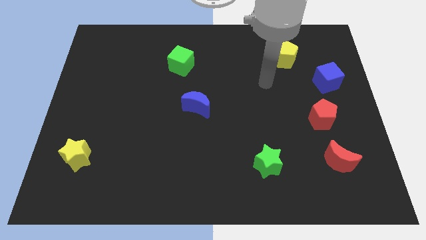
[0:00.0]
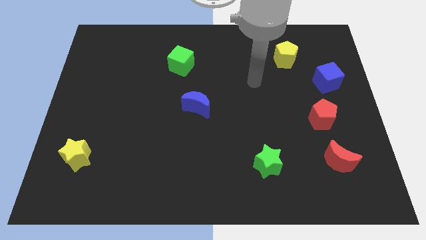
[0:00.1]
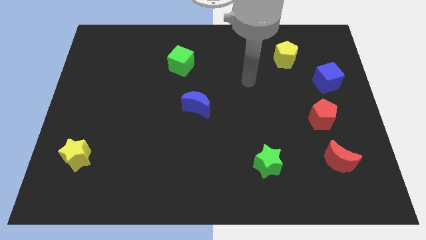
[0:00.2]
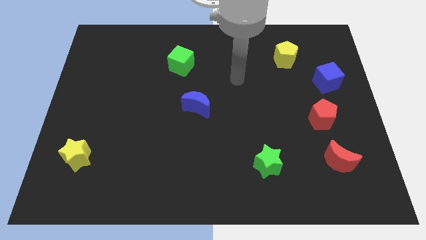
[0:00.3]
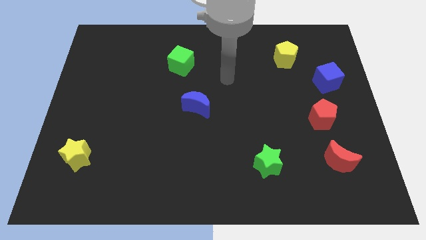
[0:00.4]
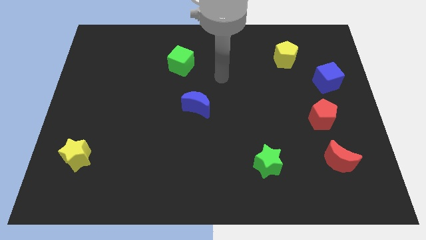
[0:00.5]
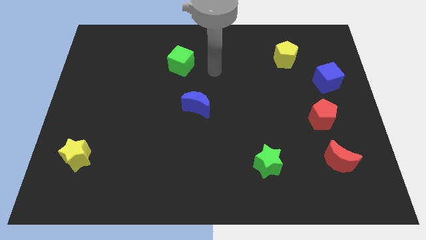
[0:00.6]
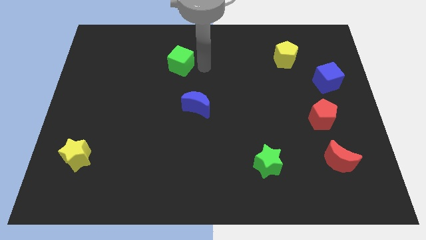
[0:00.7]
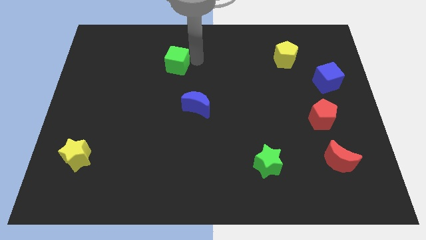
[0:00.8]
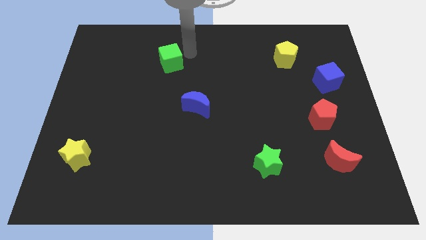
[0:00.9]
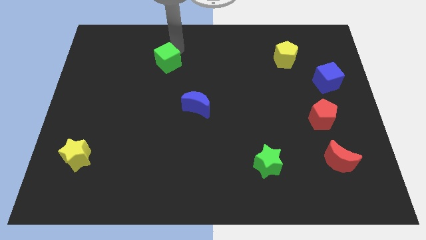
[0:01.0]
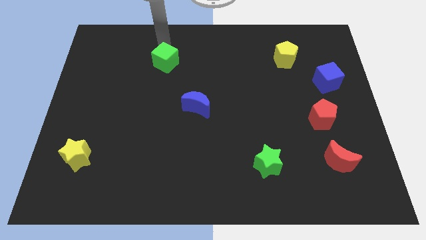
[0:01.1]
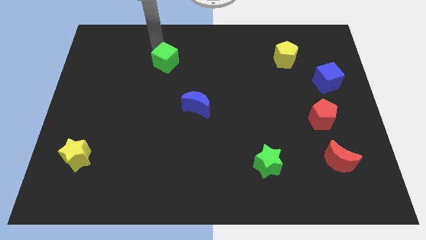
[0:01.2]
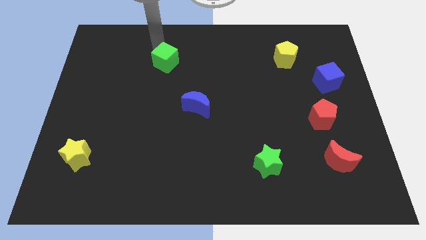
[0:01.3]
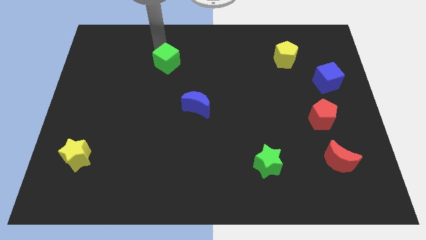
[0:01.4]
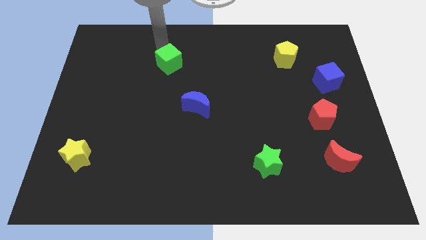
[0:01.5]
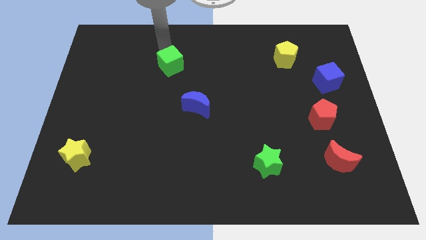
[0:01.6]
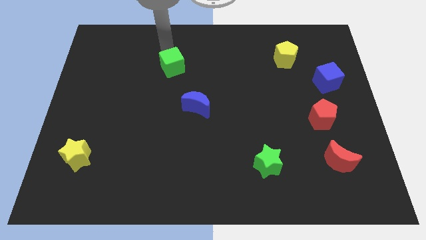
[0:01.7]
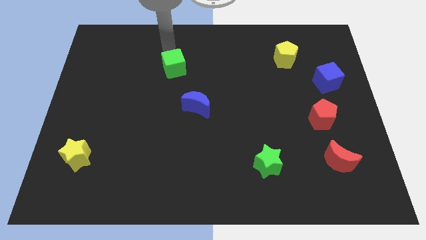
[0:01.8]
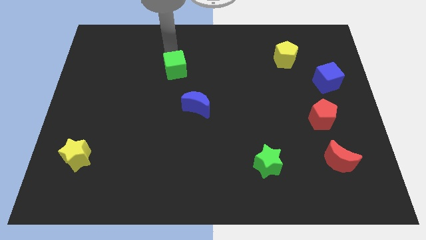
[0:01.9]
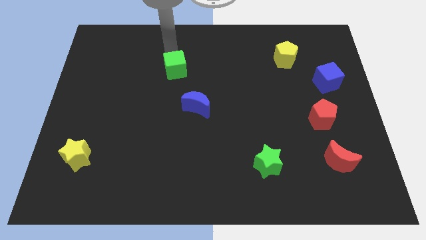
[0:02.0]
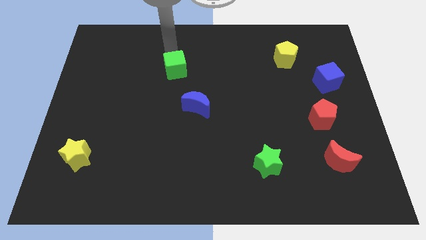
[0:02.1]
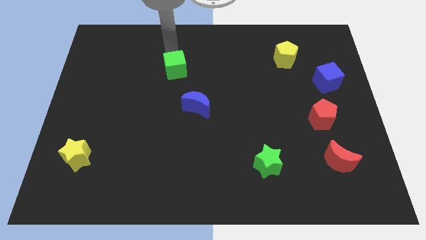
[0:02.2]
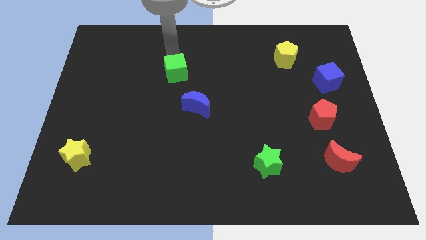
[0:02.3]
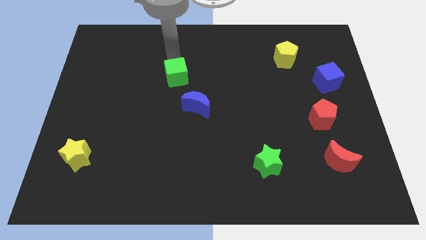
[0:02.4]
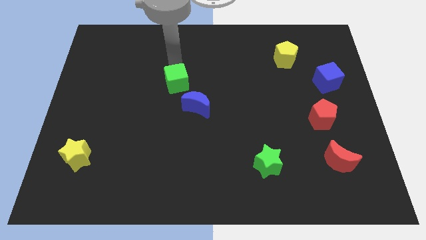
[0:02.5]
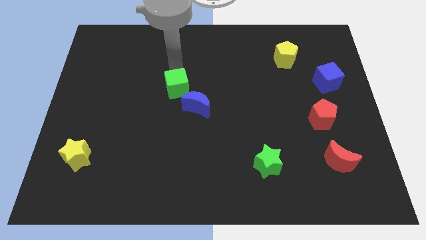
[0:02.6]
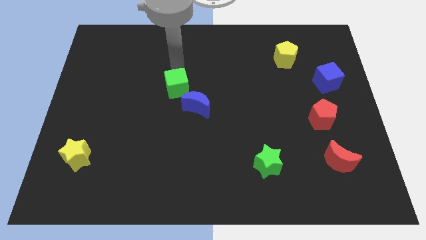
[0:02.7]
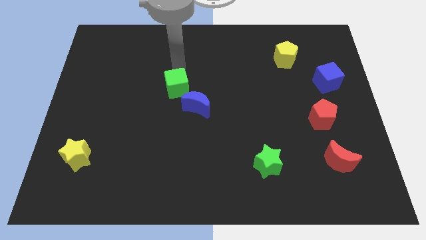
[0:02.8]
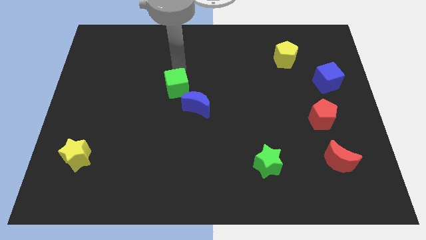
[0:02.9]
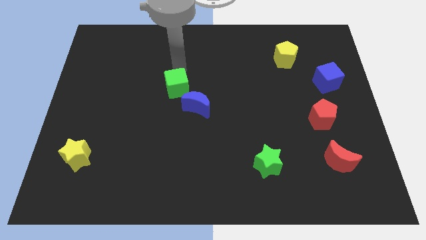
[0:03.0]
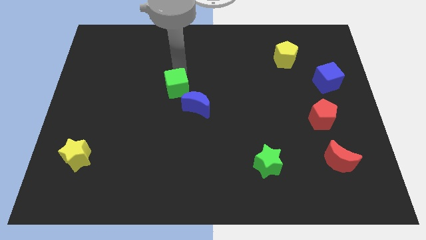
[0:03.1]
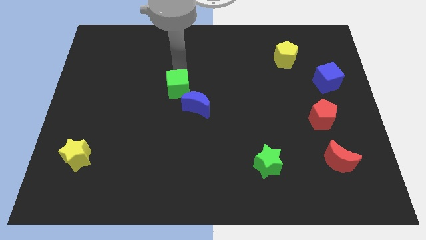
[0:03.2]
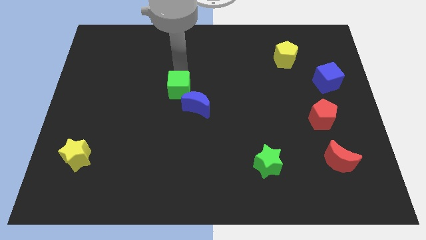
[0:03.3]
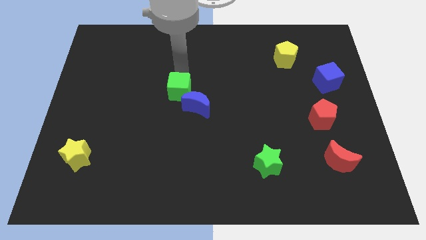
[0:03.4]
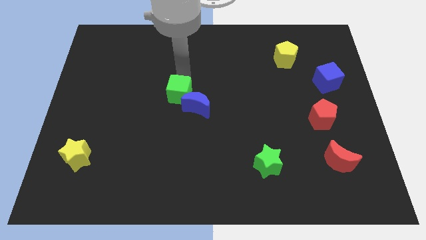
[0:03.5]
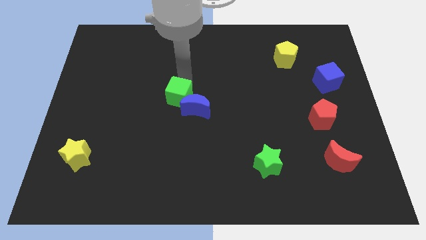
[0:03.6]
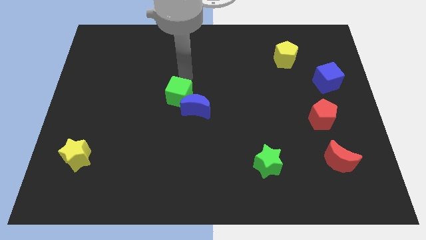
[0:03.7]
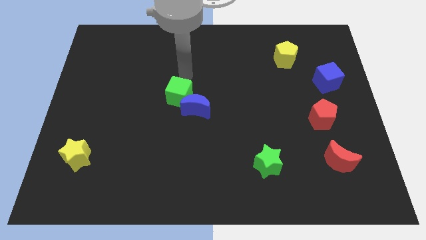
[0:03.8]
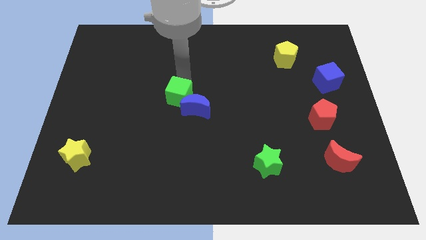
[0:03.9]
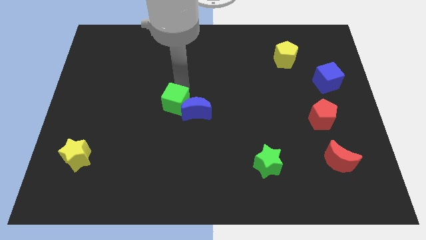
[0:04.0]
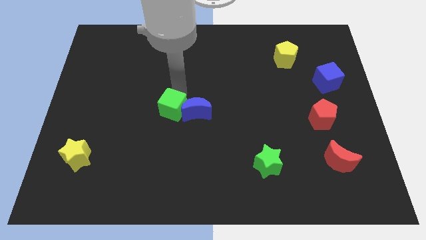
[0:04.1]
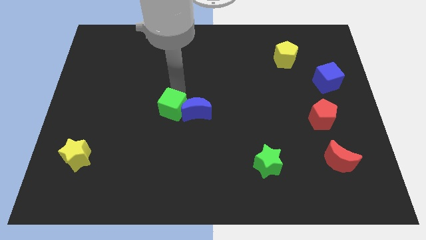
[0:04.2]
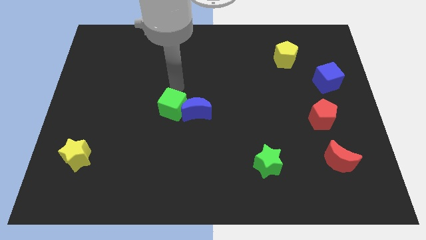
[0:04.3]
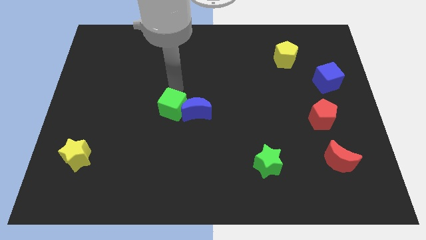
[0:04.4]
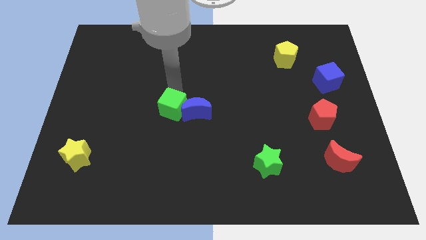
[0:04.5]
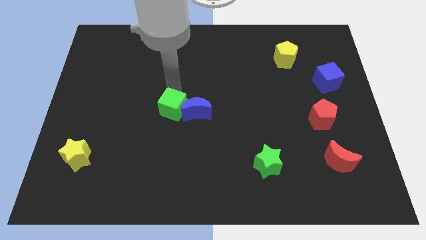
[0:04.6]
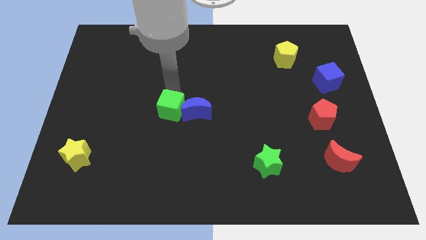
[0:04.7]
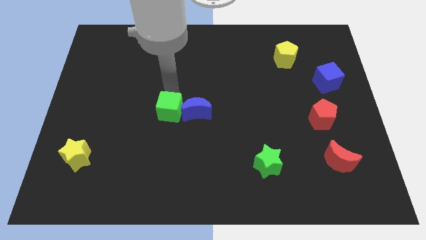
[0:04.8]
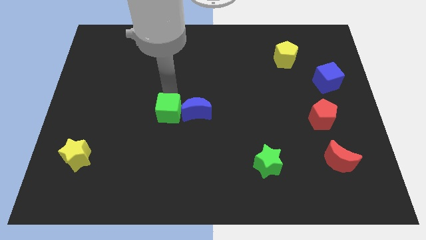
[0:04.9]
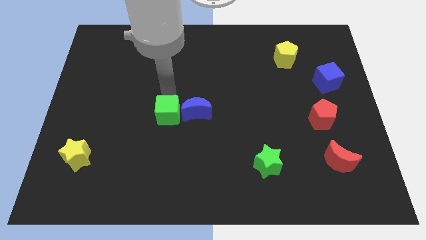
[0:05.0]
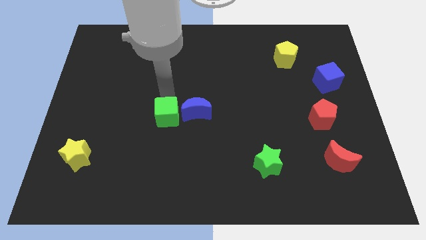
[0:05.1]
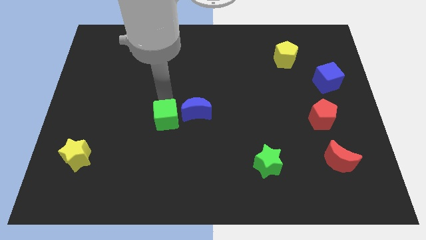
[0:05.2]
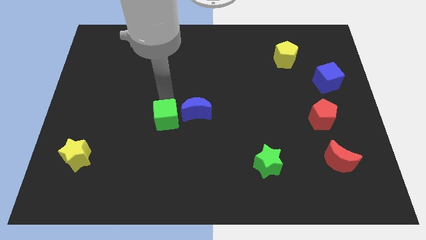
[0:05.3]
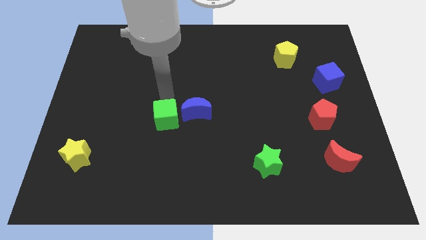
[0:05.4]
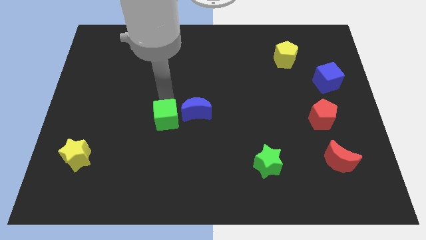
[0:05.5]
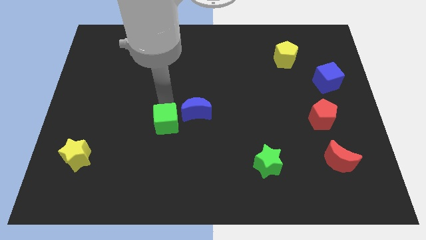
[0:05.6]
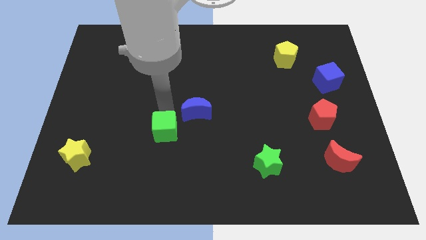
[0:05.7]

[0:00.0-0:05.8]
move the green cube down

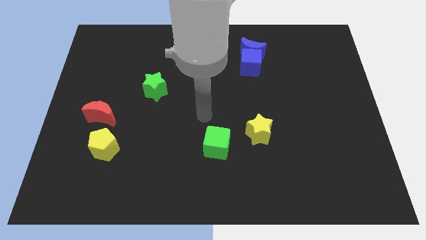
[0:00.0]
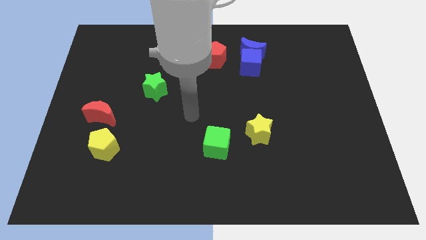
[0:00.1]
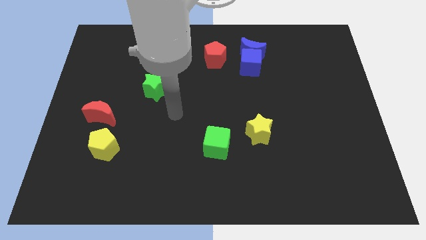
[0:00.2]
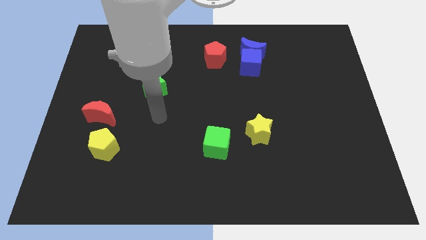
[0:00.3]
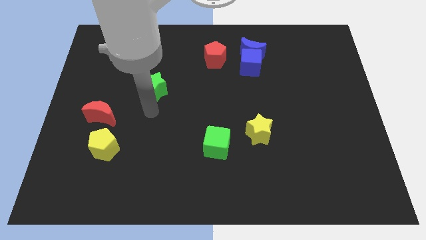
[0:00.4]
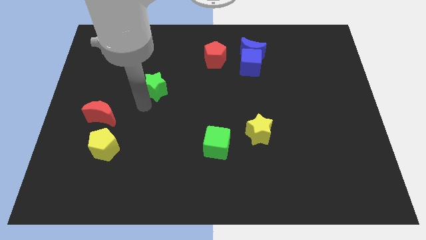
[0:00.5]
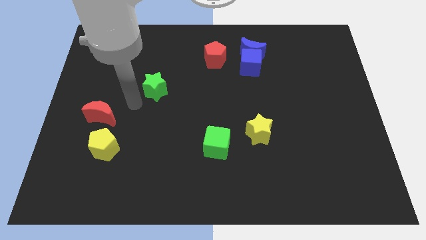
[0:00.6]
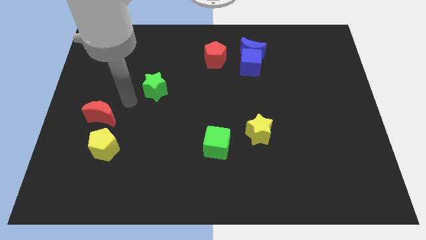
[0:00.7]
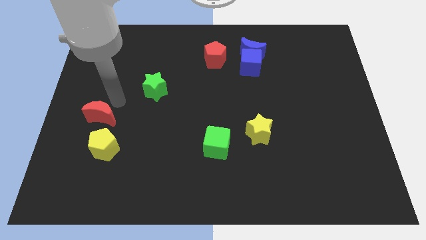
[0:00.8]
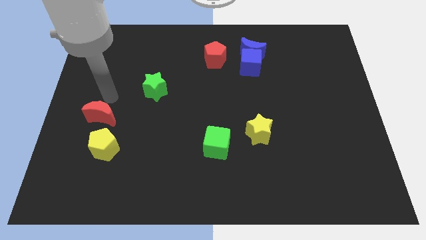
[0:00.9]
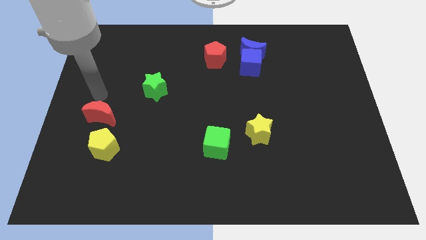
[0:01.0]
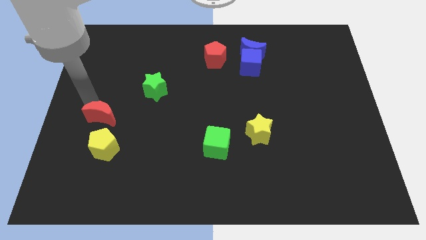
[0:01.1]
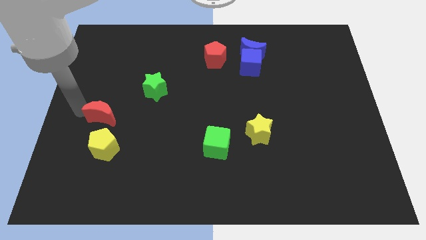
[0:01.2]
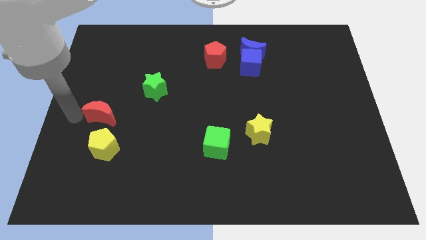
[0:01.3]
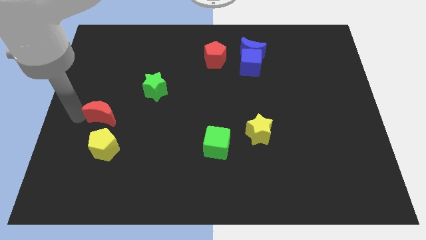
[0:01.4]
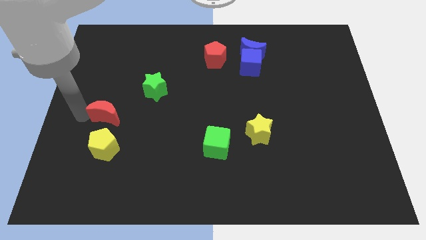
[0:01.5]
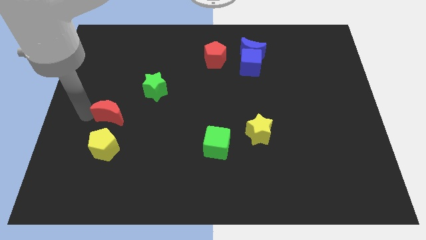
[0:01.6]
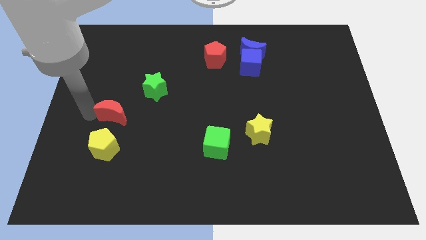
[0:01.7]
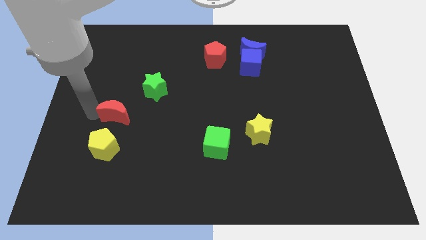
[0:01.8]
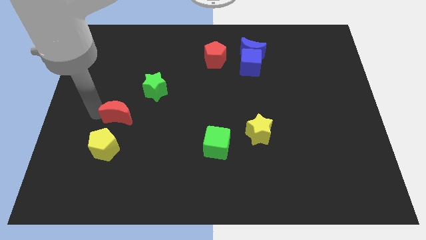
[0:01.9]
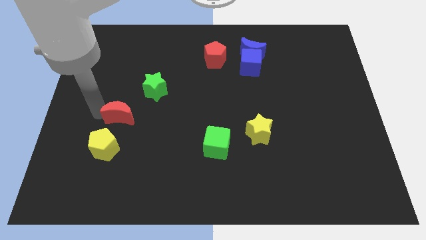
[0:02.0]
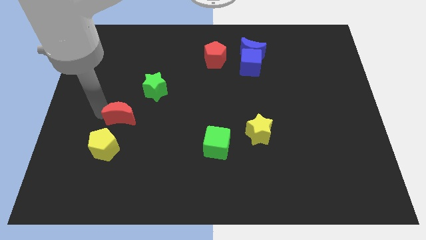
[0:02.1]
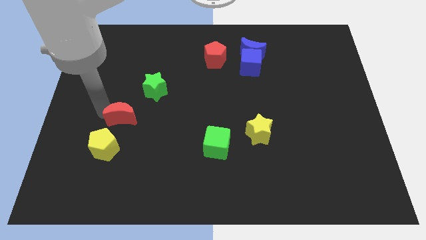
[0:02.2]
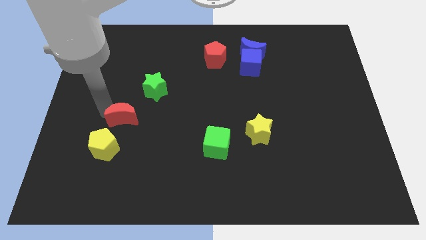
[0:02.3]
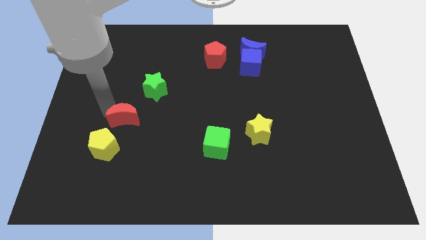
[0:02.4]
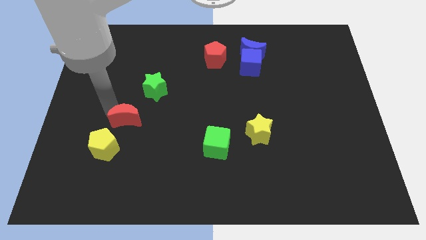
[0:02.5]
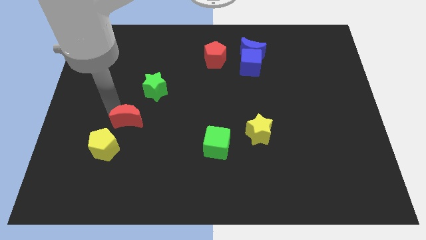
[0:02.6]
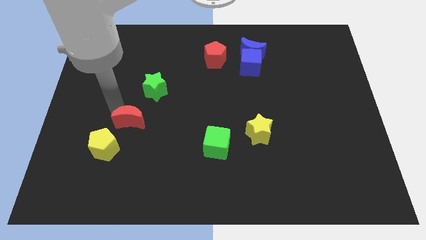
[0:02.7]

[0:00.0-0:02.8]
slide the red moon to the right slightly
